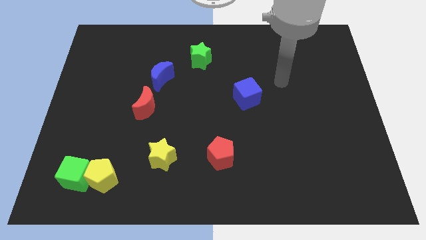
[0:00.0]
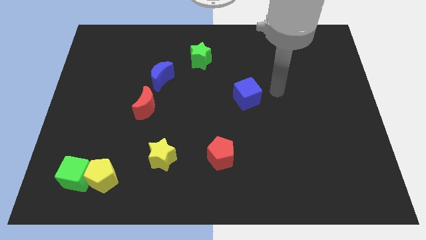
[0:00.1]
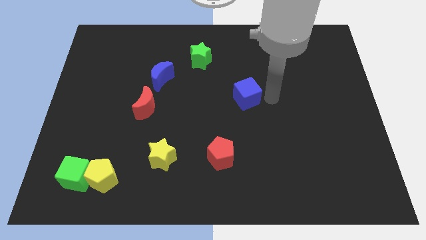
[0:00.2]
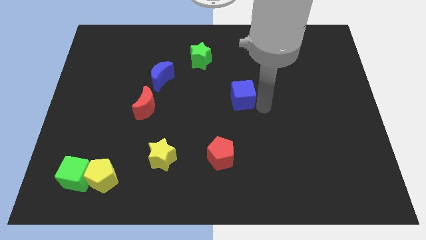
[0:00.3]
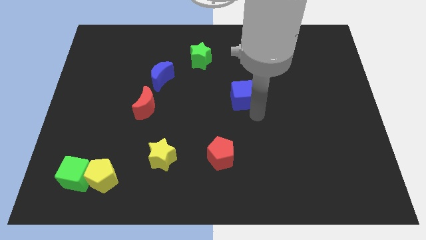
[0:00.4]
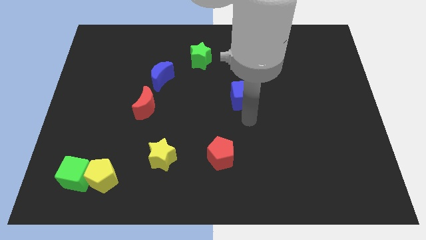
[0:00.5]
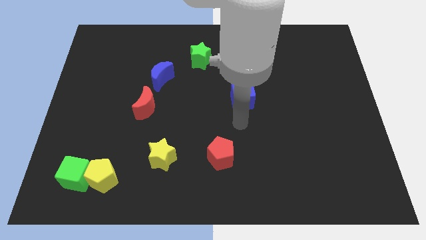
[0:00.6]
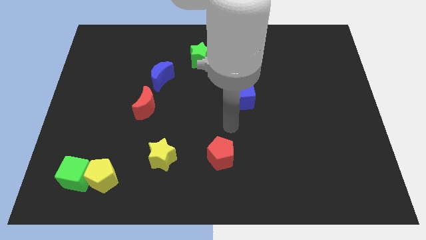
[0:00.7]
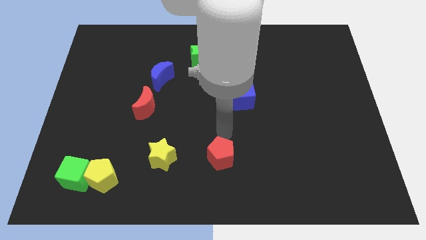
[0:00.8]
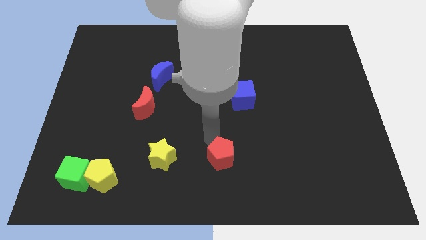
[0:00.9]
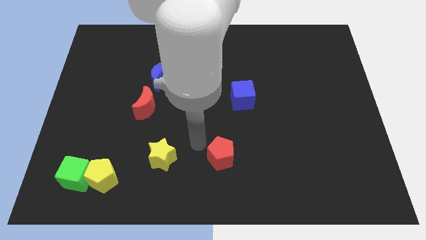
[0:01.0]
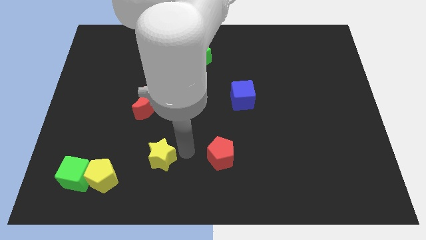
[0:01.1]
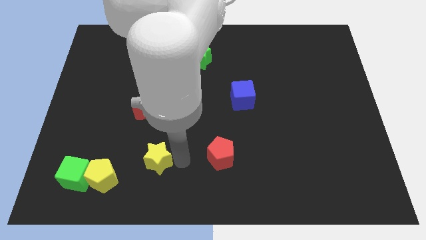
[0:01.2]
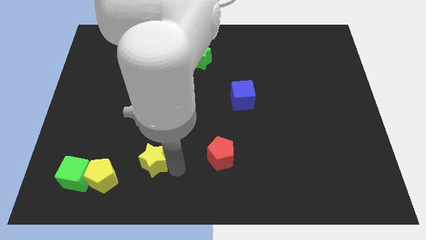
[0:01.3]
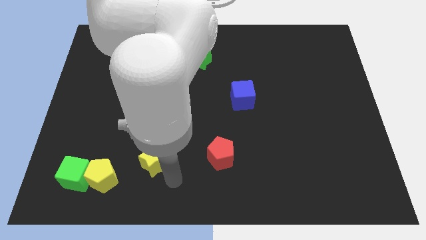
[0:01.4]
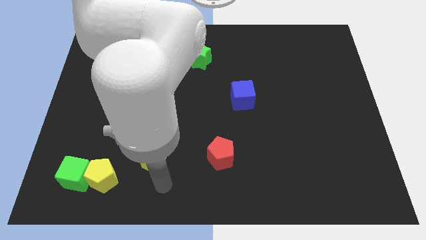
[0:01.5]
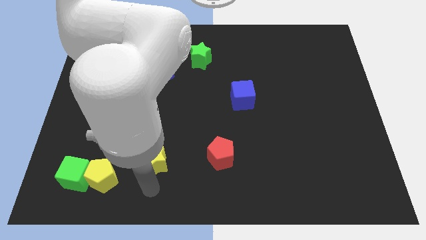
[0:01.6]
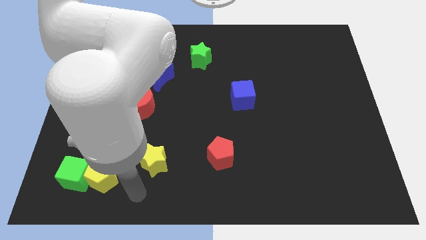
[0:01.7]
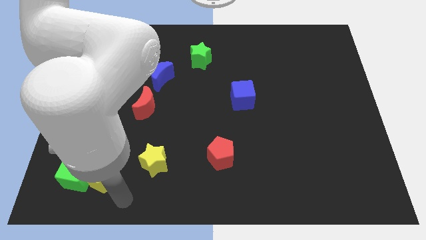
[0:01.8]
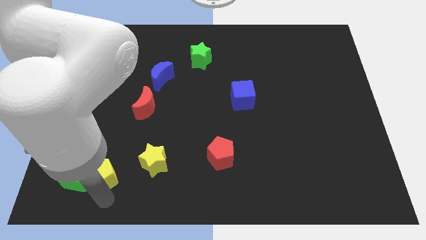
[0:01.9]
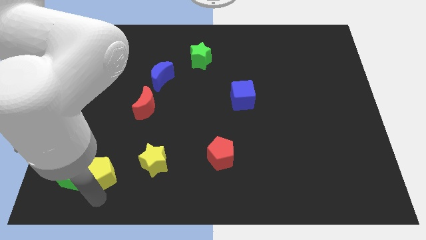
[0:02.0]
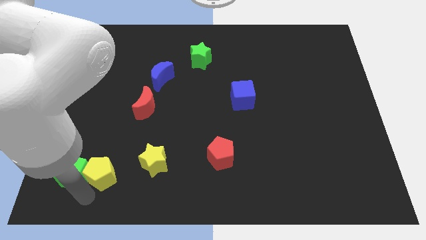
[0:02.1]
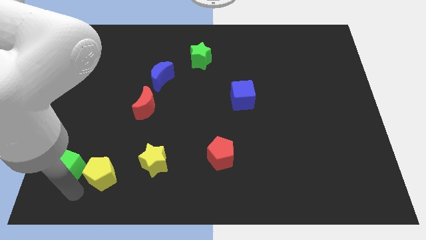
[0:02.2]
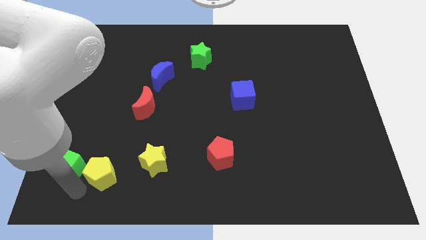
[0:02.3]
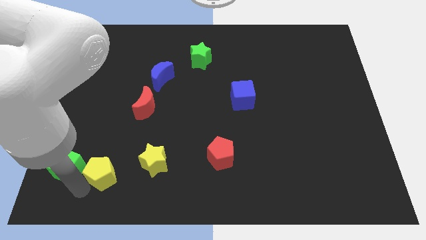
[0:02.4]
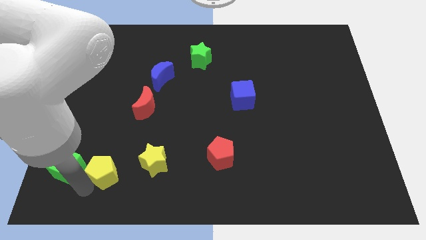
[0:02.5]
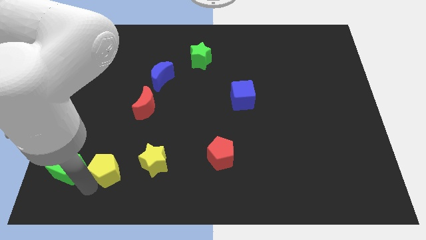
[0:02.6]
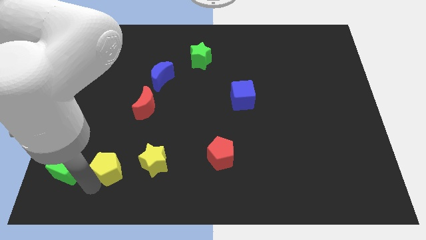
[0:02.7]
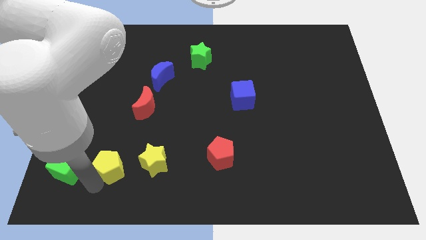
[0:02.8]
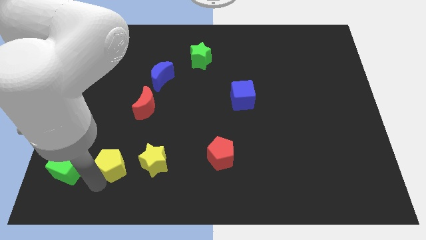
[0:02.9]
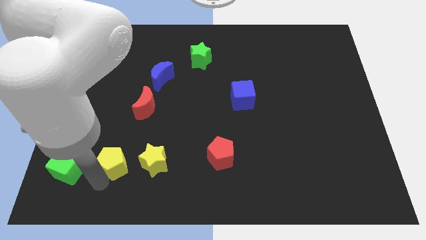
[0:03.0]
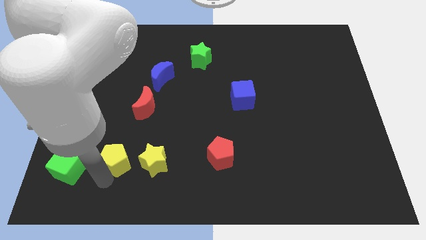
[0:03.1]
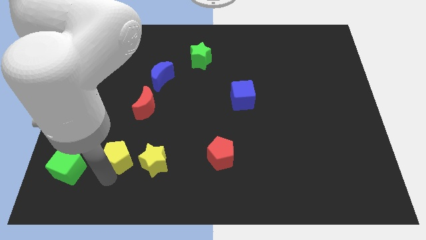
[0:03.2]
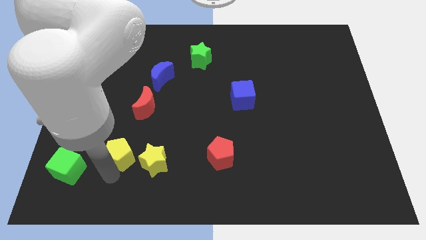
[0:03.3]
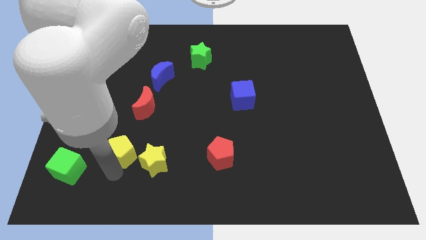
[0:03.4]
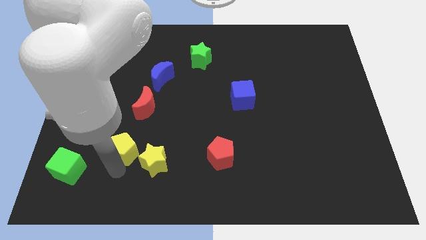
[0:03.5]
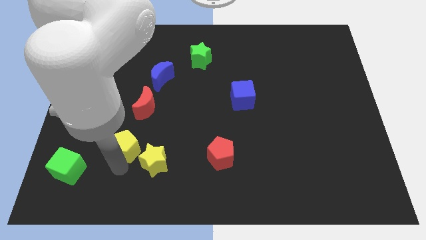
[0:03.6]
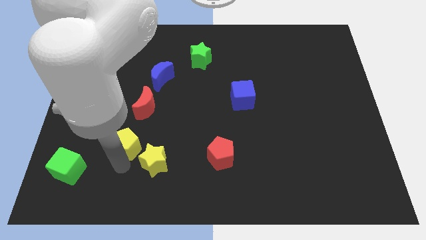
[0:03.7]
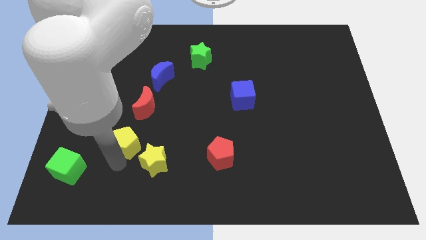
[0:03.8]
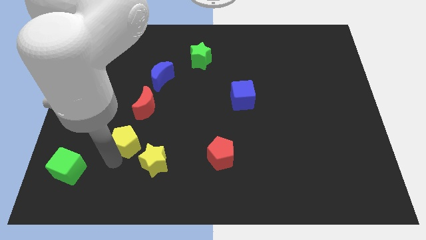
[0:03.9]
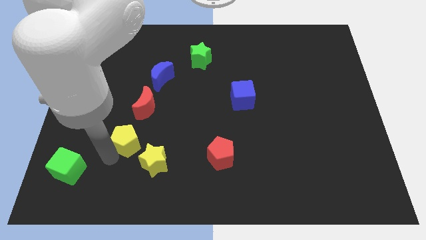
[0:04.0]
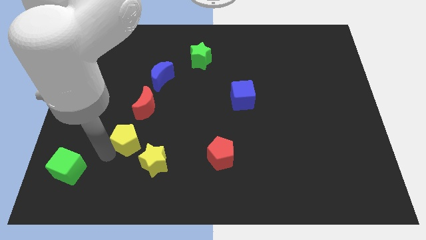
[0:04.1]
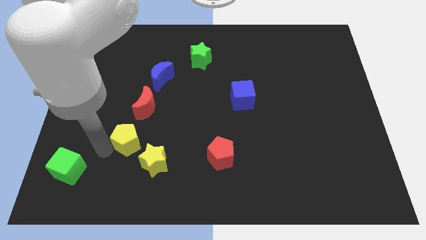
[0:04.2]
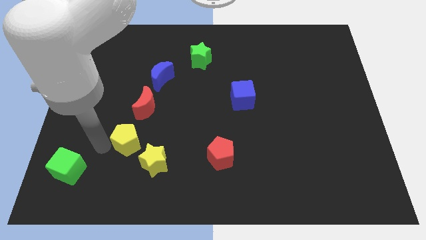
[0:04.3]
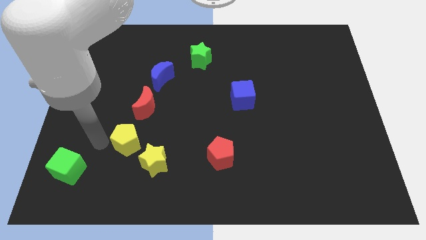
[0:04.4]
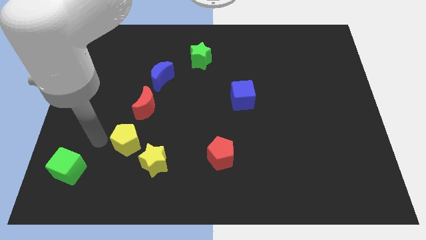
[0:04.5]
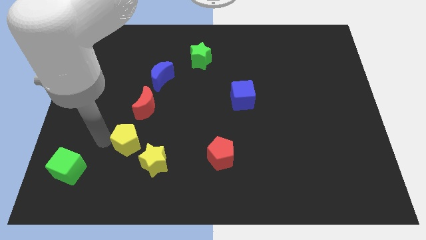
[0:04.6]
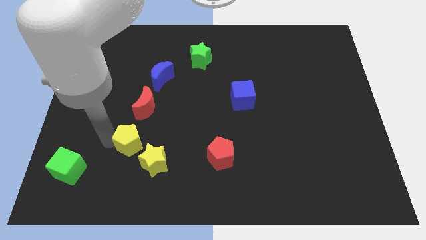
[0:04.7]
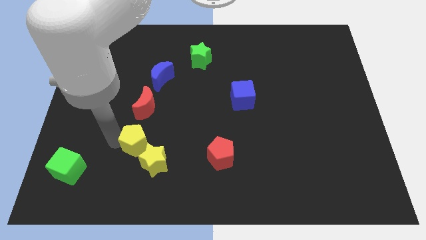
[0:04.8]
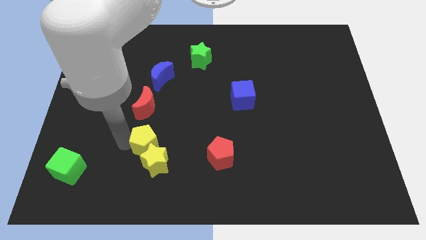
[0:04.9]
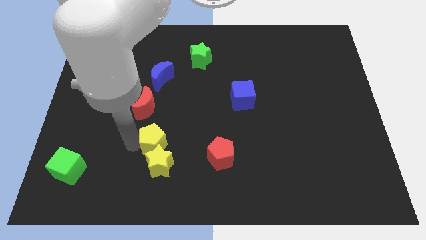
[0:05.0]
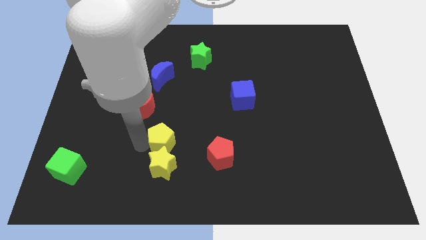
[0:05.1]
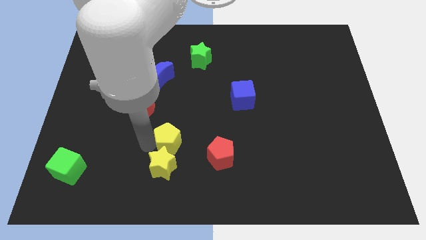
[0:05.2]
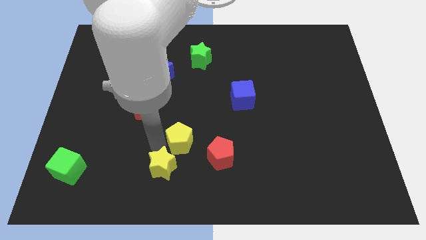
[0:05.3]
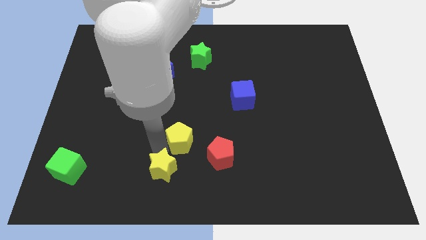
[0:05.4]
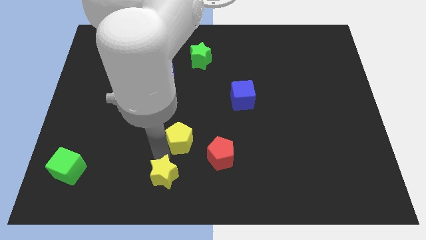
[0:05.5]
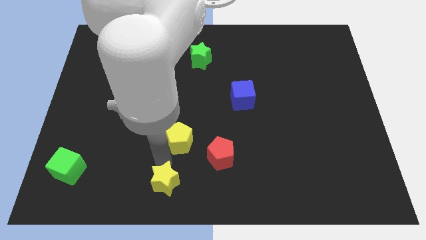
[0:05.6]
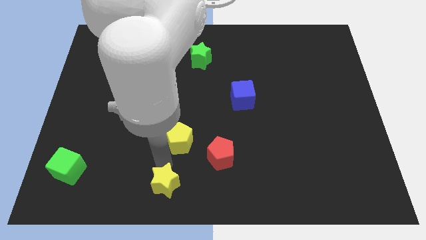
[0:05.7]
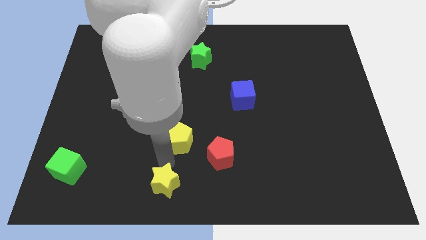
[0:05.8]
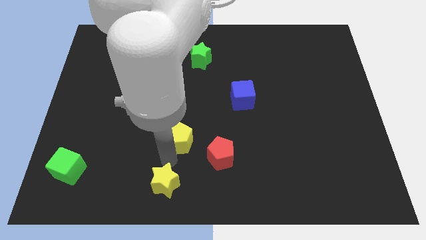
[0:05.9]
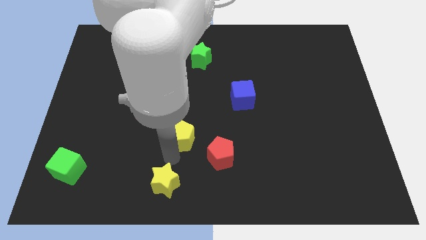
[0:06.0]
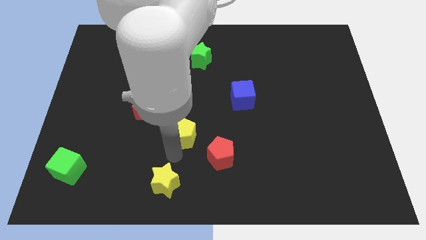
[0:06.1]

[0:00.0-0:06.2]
put the yellow pentagon to the middle of the board

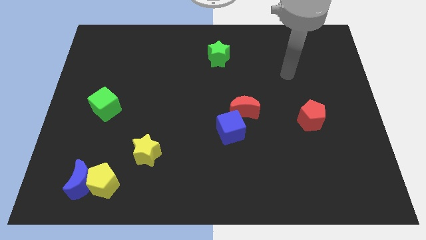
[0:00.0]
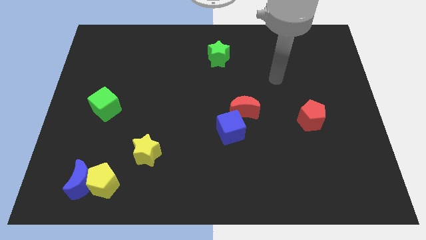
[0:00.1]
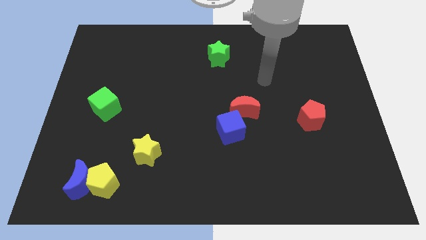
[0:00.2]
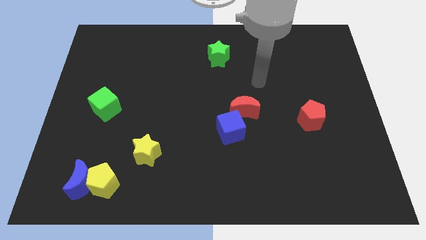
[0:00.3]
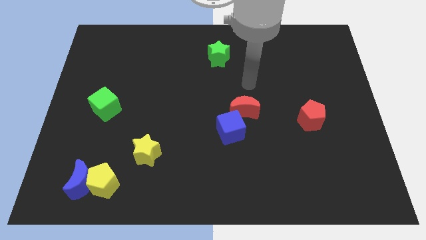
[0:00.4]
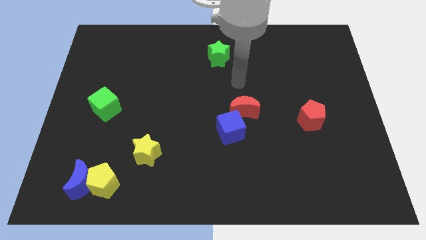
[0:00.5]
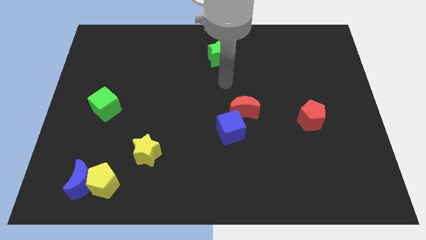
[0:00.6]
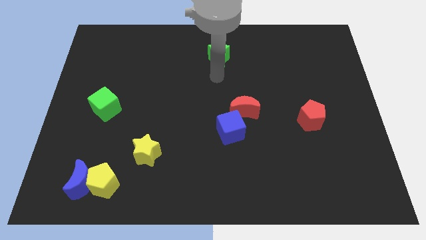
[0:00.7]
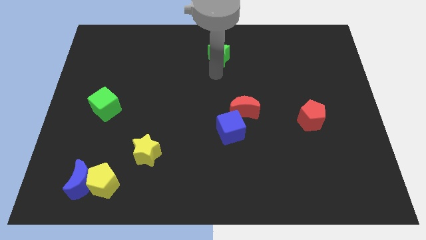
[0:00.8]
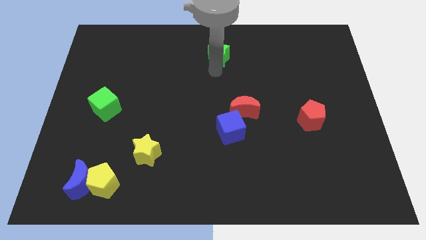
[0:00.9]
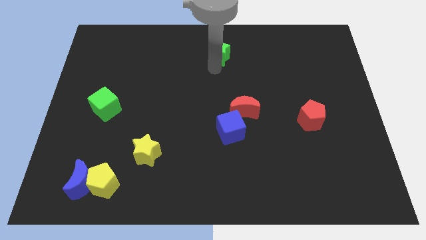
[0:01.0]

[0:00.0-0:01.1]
push the green star to the top
